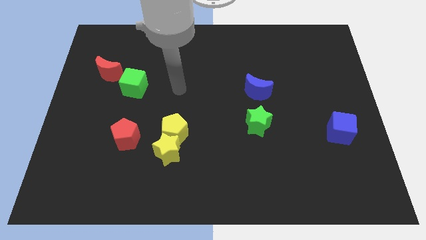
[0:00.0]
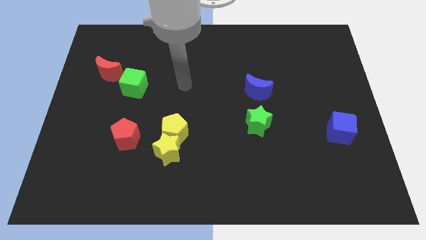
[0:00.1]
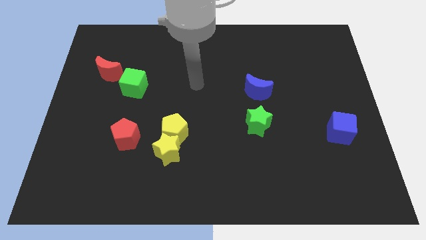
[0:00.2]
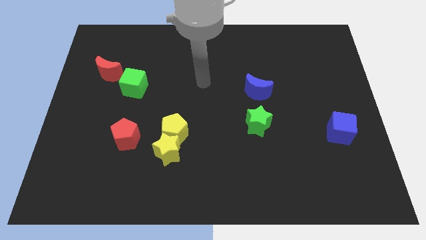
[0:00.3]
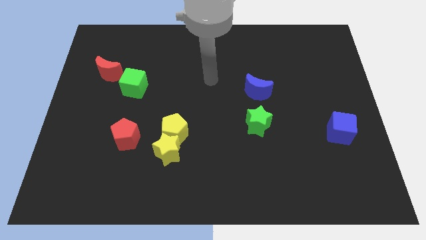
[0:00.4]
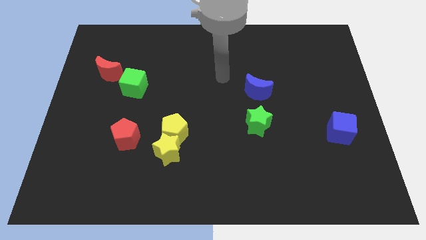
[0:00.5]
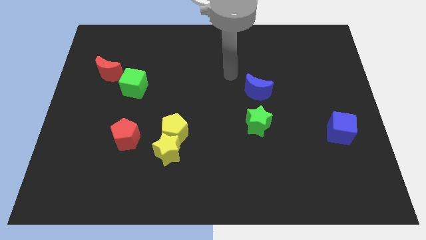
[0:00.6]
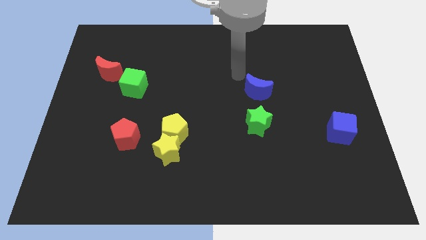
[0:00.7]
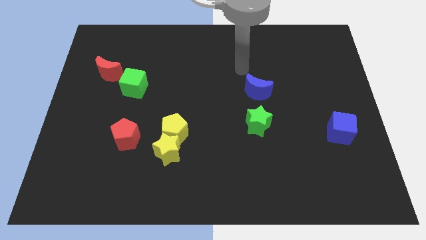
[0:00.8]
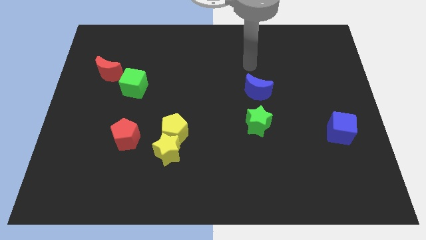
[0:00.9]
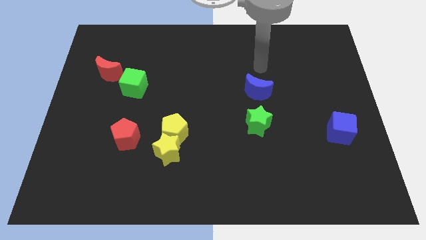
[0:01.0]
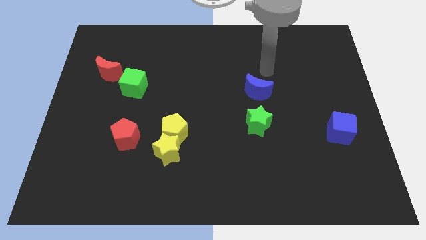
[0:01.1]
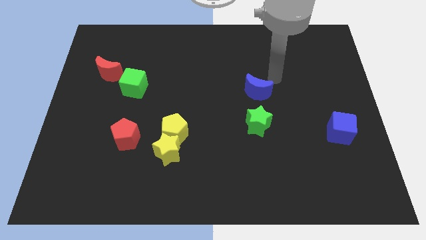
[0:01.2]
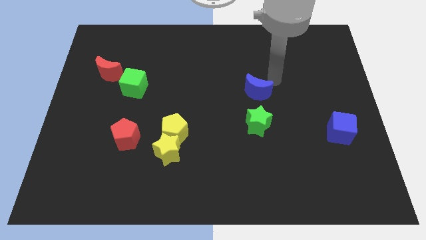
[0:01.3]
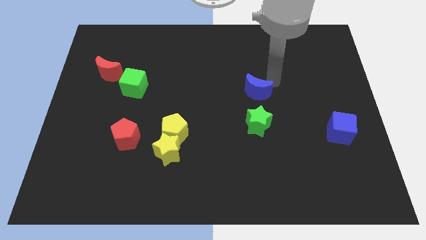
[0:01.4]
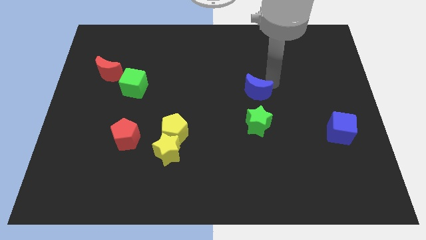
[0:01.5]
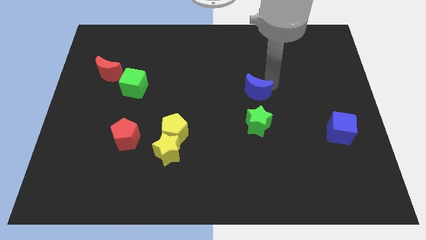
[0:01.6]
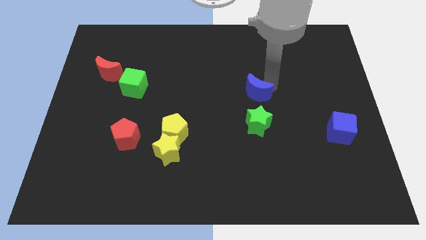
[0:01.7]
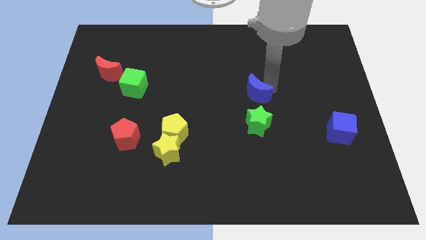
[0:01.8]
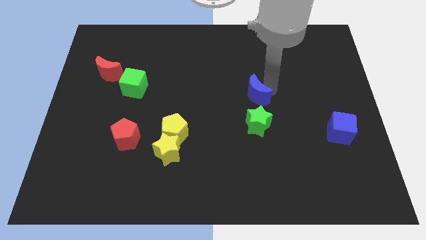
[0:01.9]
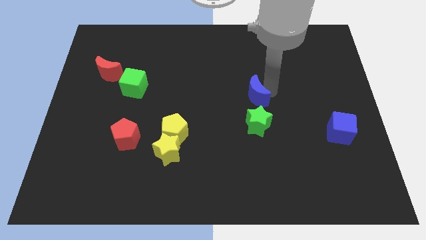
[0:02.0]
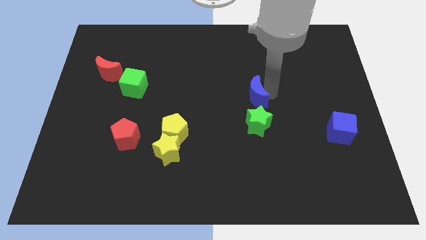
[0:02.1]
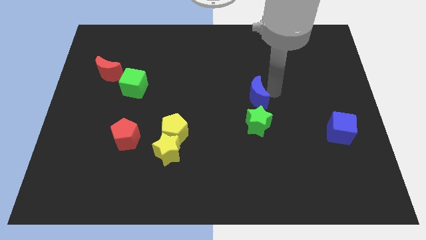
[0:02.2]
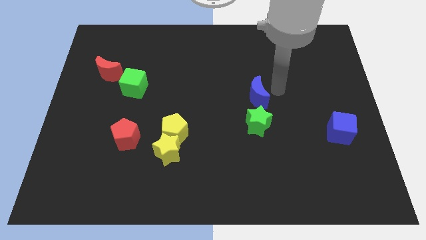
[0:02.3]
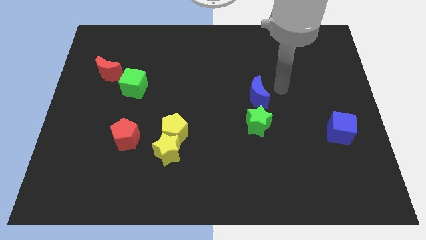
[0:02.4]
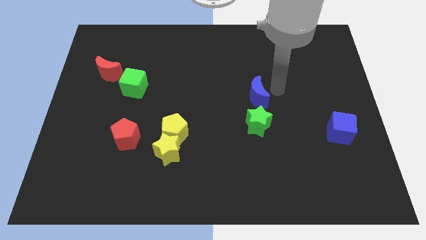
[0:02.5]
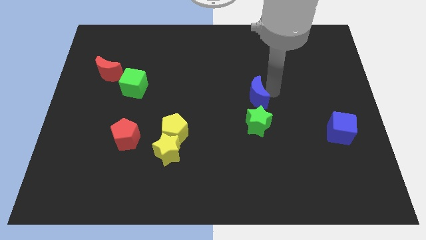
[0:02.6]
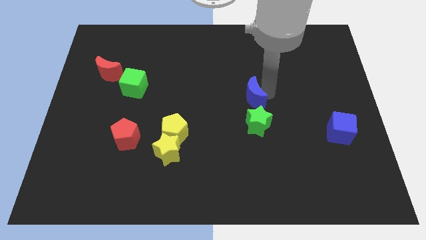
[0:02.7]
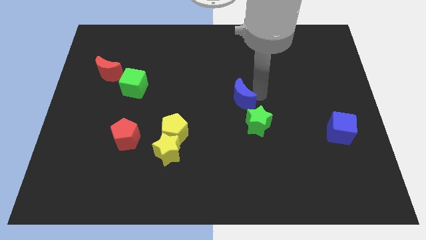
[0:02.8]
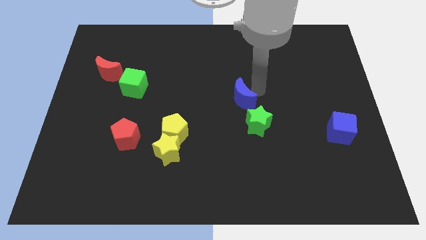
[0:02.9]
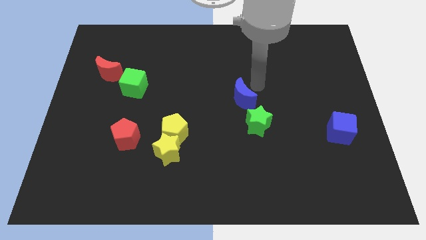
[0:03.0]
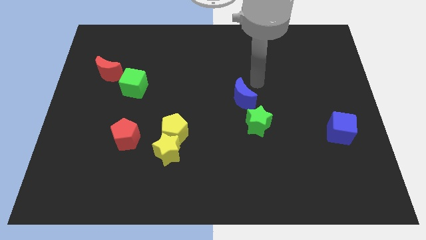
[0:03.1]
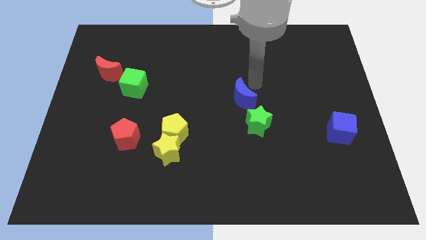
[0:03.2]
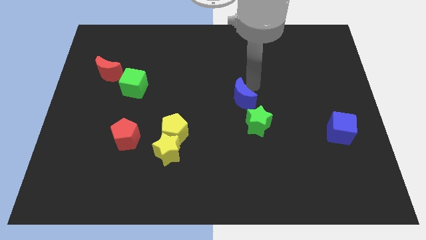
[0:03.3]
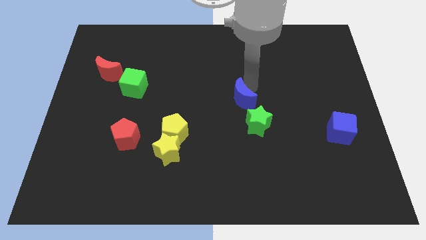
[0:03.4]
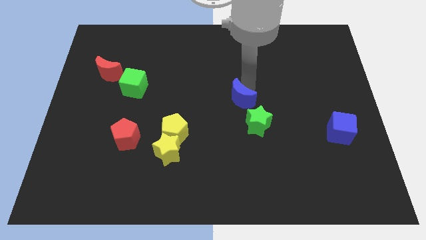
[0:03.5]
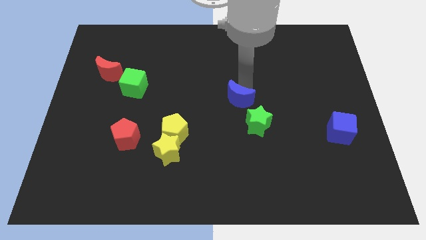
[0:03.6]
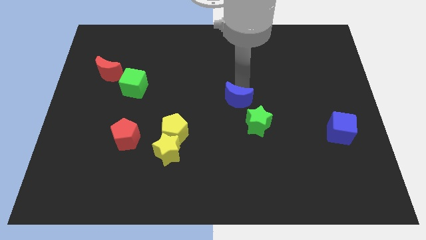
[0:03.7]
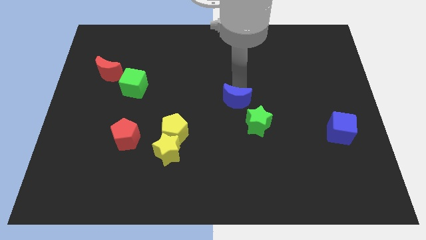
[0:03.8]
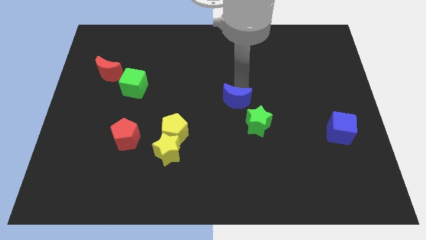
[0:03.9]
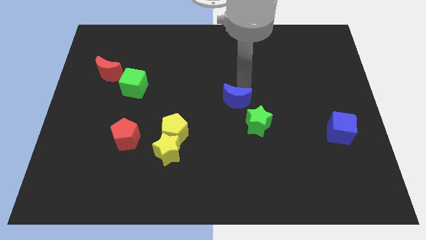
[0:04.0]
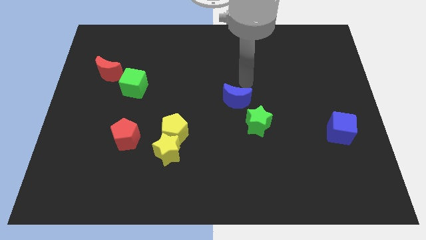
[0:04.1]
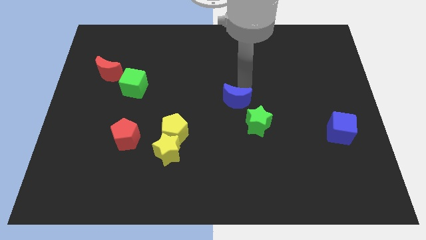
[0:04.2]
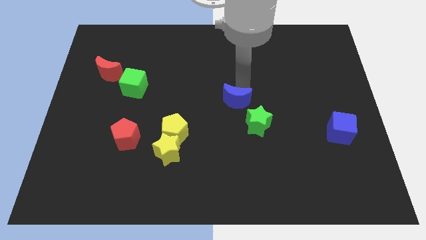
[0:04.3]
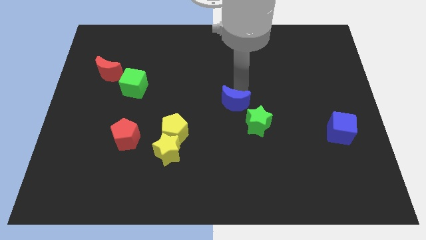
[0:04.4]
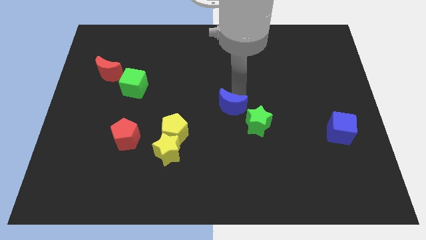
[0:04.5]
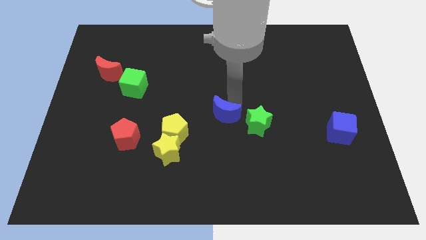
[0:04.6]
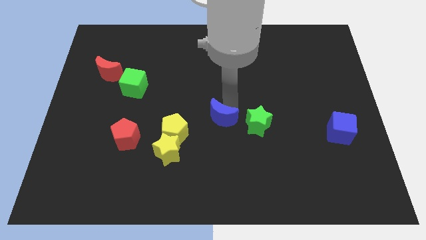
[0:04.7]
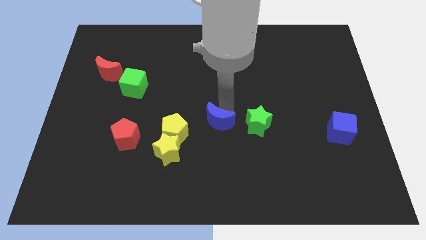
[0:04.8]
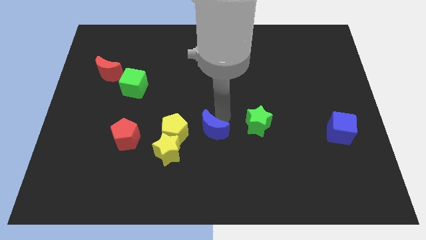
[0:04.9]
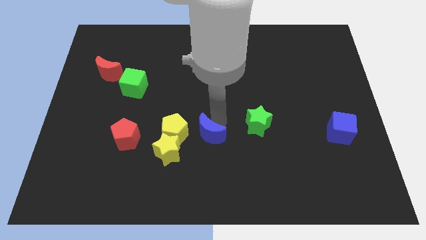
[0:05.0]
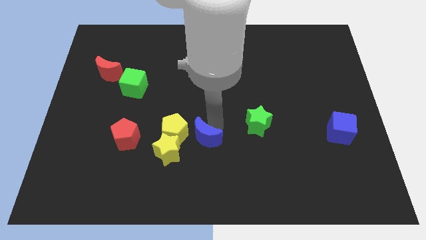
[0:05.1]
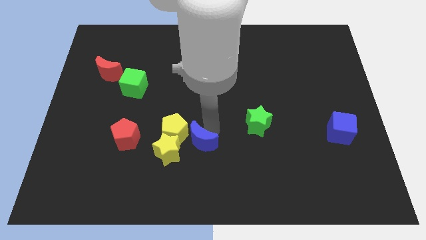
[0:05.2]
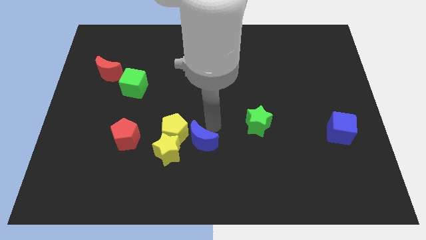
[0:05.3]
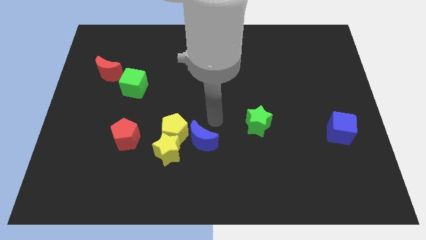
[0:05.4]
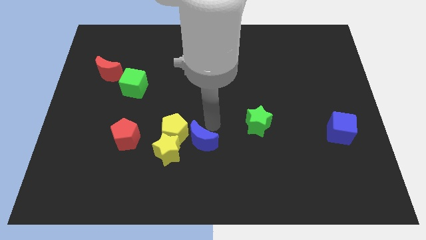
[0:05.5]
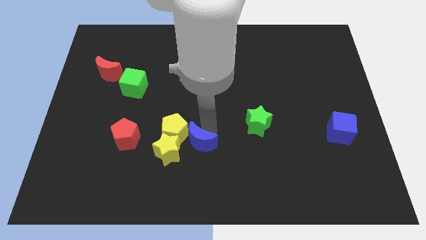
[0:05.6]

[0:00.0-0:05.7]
move the blue moon downwards and to the left

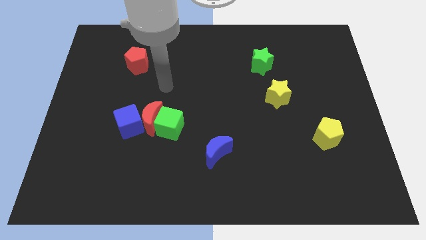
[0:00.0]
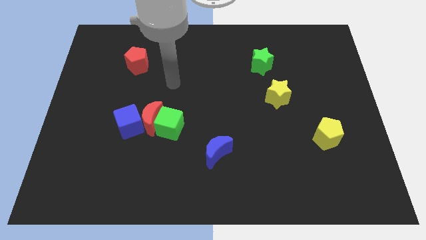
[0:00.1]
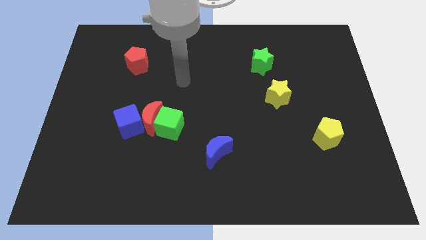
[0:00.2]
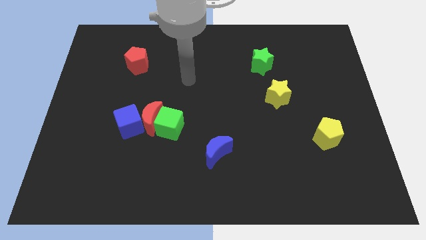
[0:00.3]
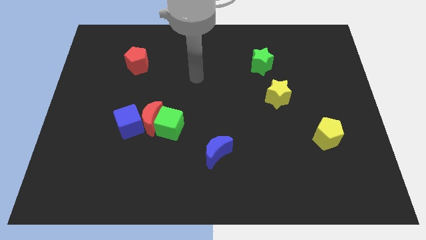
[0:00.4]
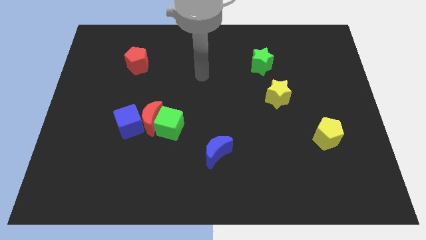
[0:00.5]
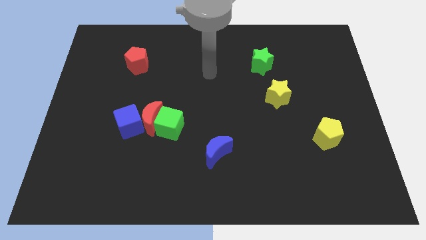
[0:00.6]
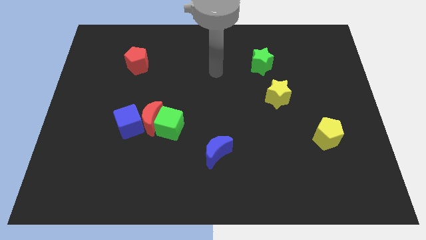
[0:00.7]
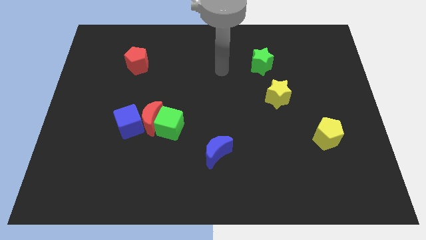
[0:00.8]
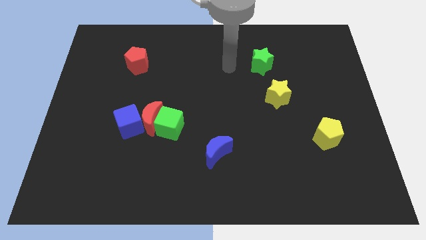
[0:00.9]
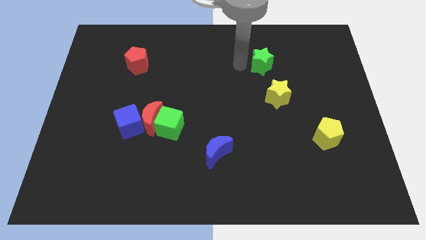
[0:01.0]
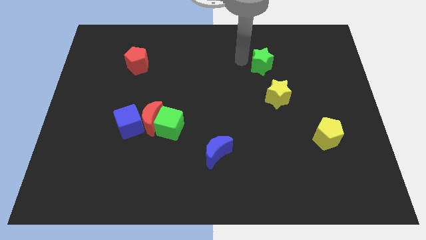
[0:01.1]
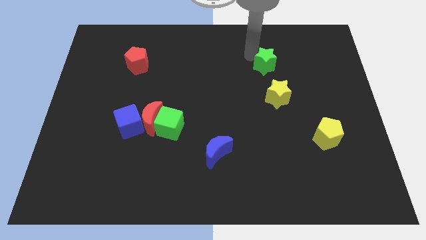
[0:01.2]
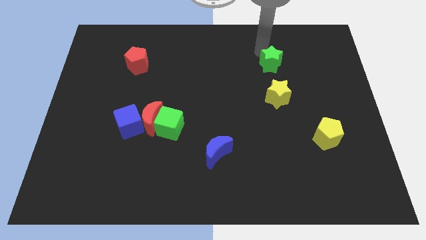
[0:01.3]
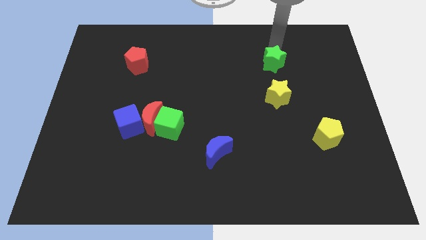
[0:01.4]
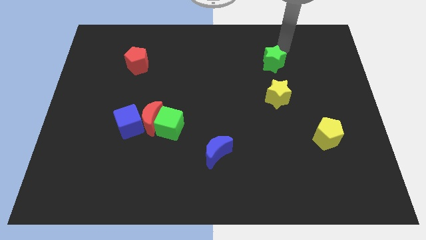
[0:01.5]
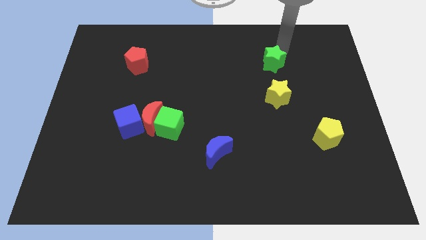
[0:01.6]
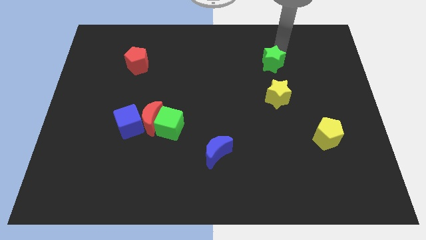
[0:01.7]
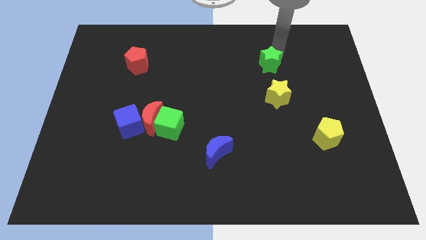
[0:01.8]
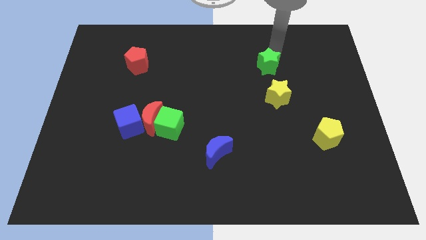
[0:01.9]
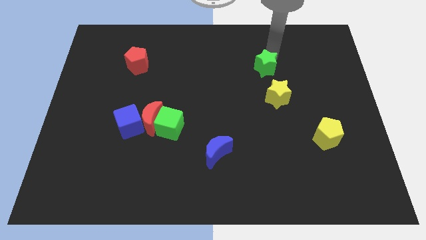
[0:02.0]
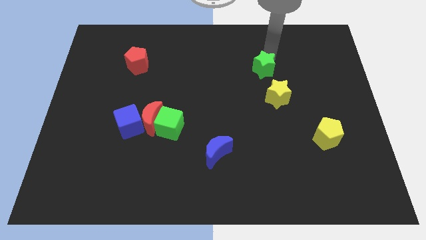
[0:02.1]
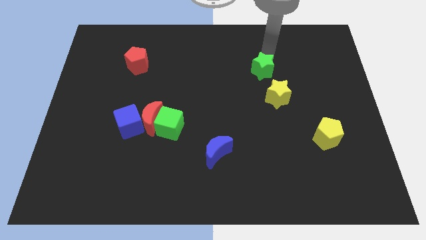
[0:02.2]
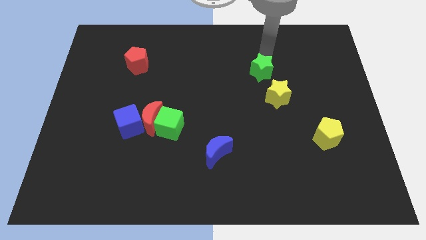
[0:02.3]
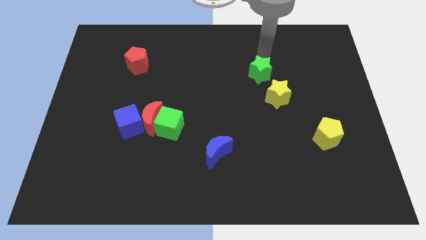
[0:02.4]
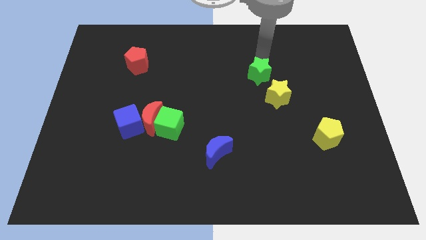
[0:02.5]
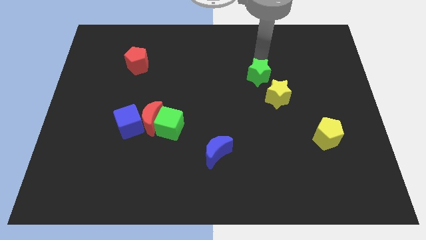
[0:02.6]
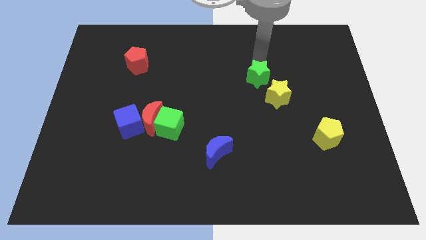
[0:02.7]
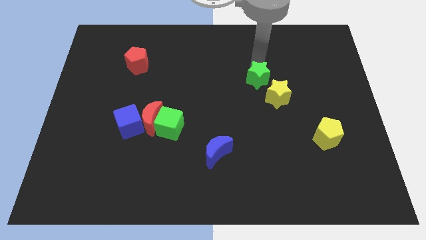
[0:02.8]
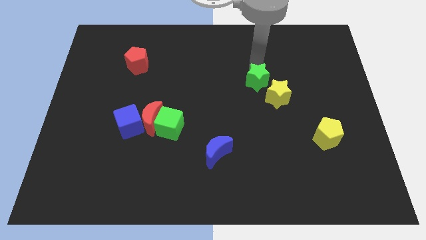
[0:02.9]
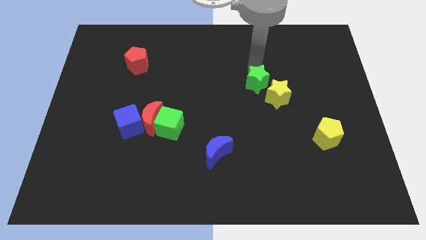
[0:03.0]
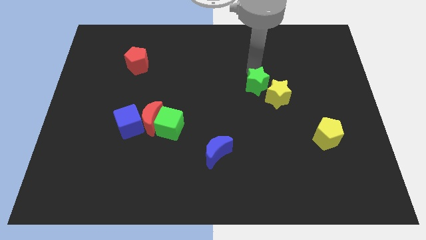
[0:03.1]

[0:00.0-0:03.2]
slightly slide the green star down
